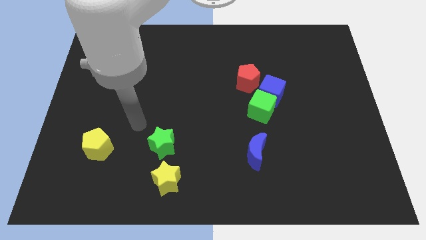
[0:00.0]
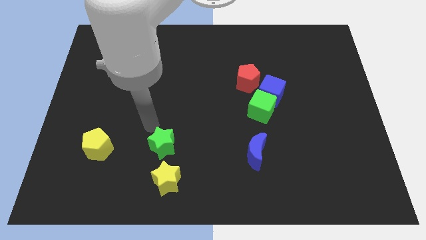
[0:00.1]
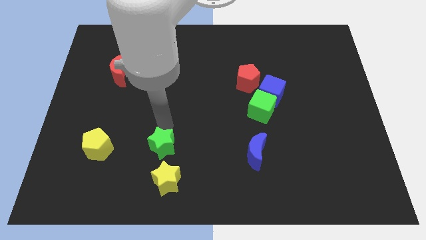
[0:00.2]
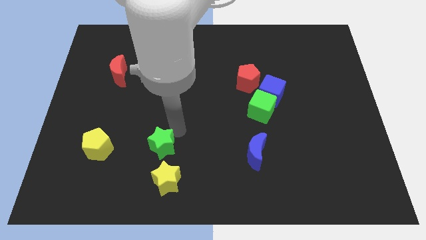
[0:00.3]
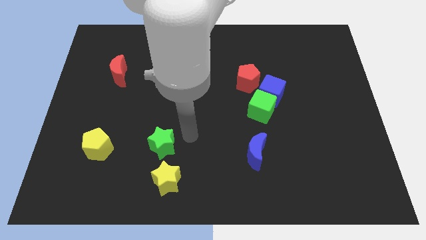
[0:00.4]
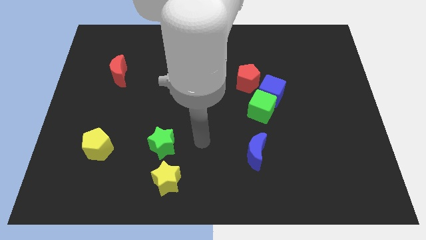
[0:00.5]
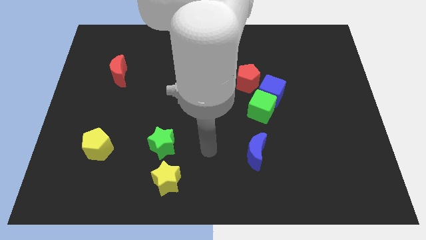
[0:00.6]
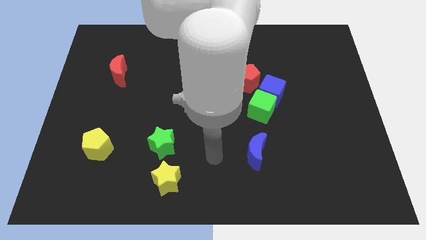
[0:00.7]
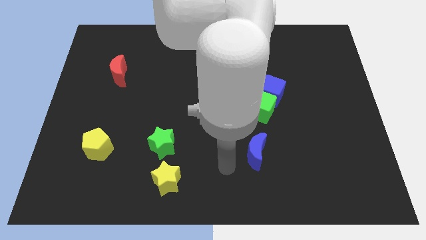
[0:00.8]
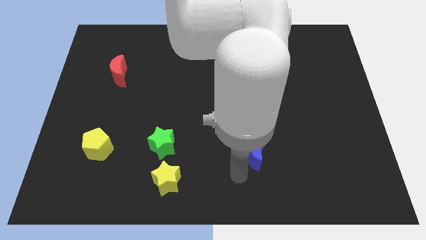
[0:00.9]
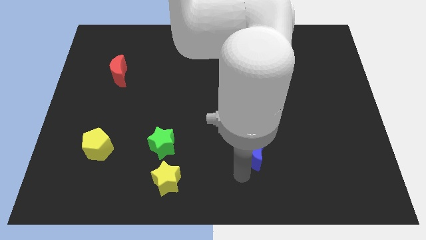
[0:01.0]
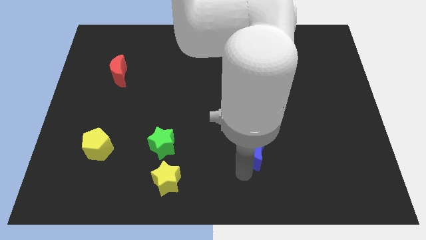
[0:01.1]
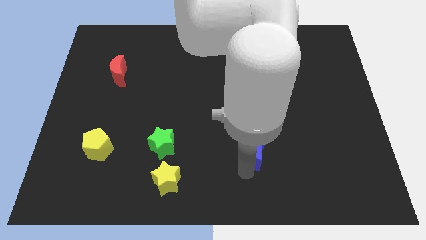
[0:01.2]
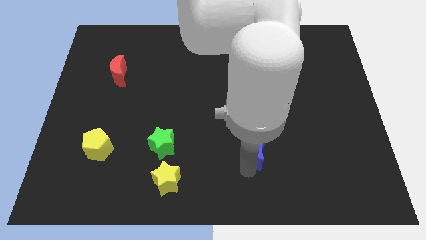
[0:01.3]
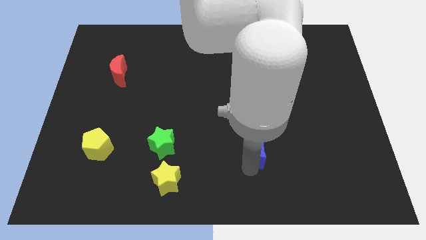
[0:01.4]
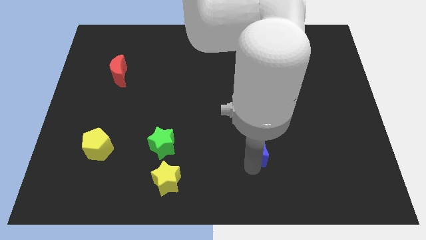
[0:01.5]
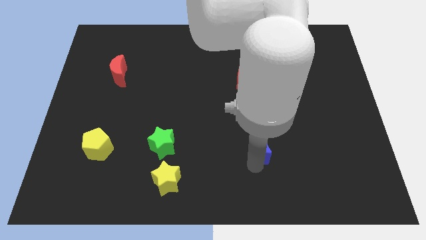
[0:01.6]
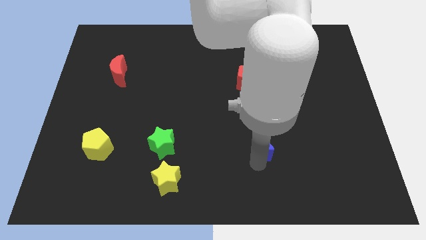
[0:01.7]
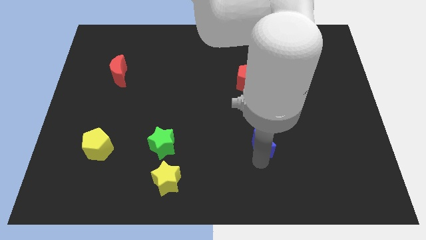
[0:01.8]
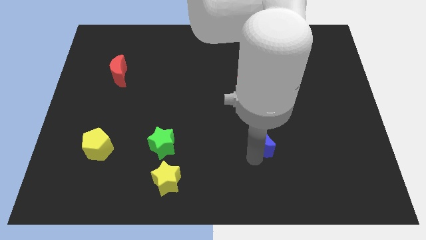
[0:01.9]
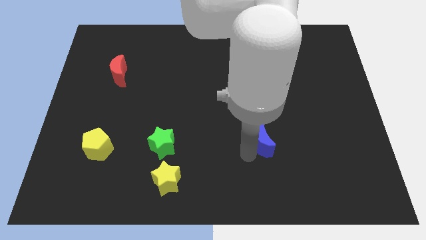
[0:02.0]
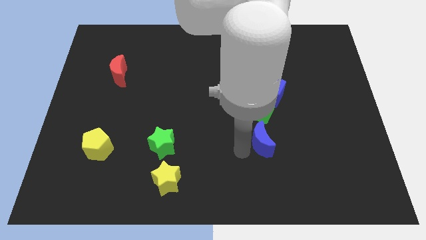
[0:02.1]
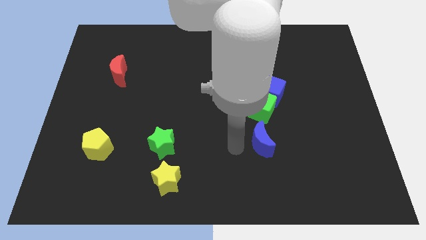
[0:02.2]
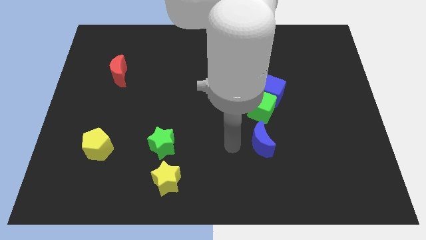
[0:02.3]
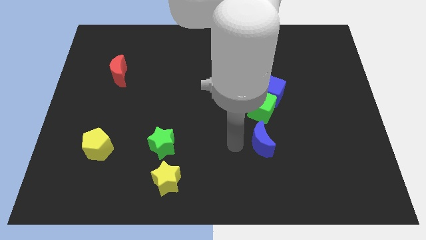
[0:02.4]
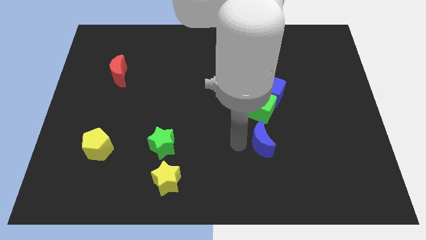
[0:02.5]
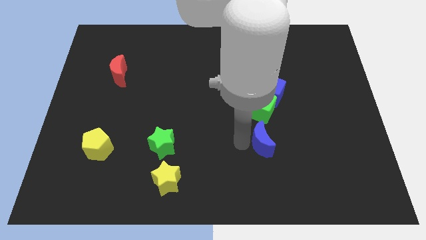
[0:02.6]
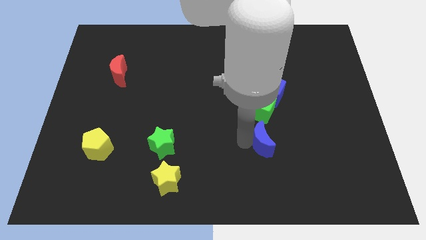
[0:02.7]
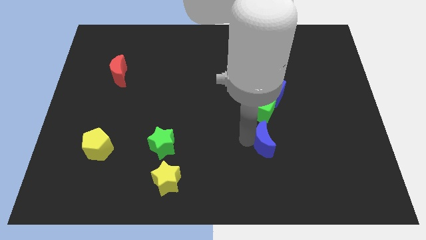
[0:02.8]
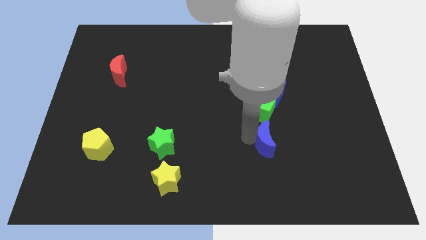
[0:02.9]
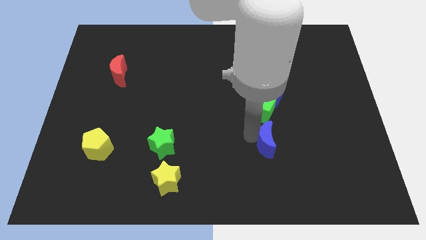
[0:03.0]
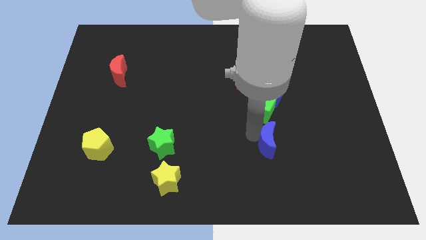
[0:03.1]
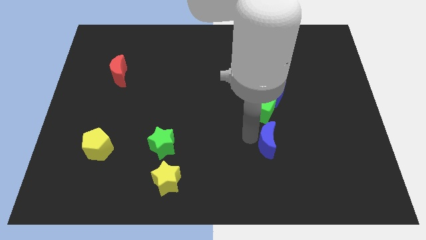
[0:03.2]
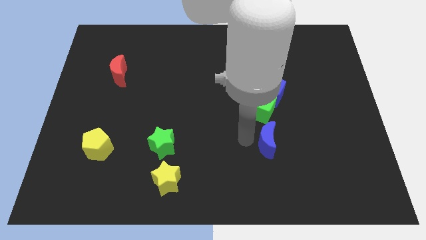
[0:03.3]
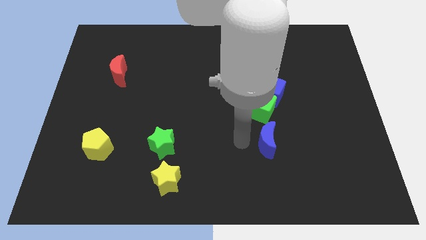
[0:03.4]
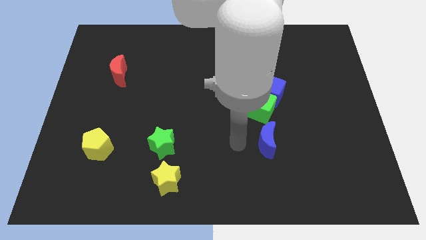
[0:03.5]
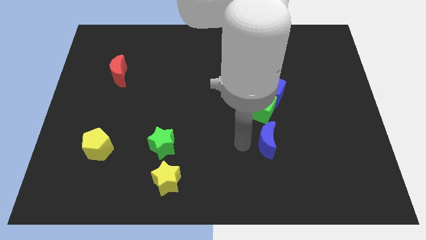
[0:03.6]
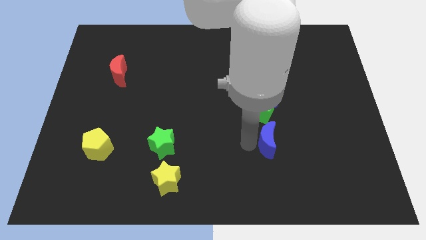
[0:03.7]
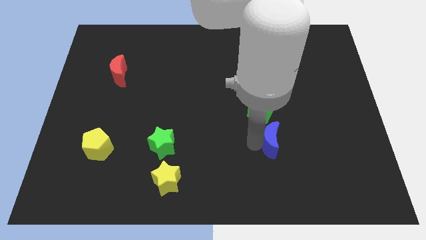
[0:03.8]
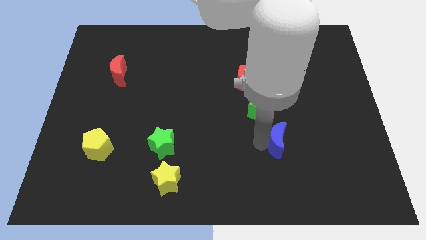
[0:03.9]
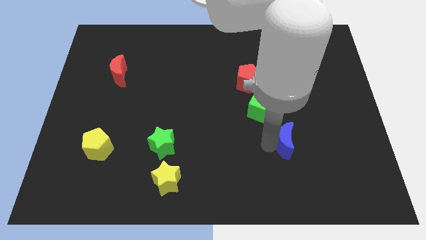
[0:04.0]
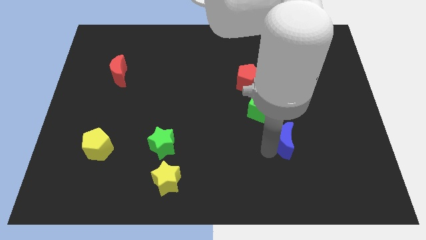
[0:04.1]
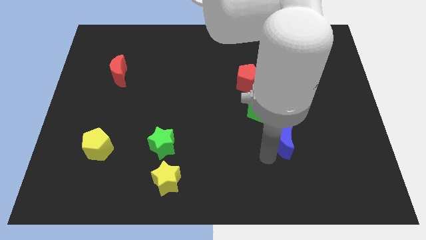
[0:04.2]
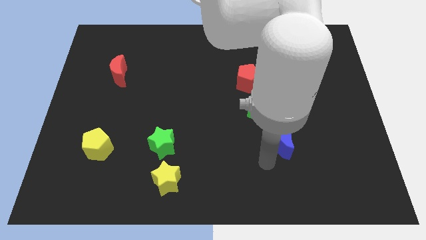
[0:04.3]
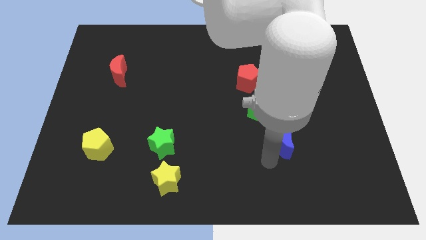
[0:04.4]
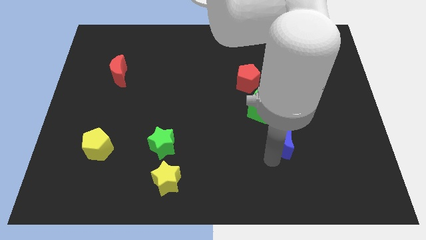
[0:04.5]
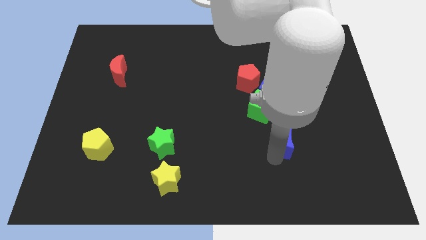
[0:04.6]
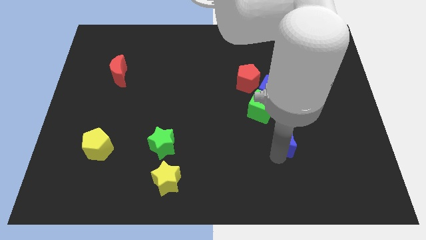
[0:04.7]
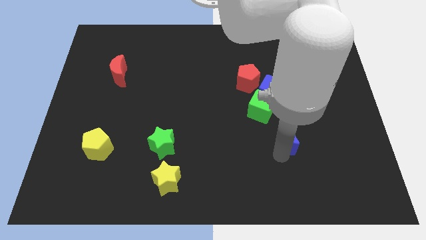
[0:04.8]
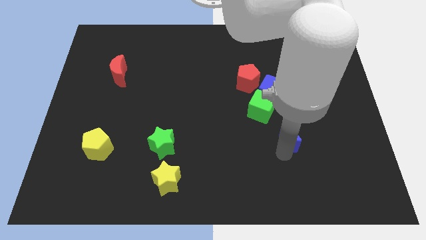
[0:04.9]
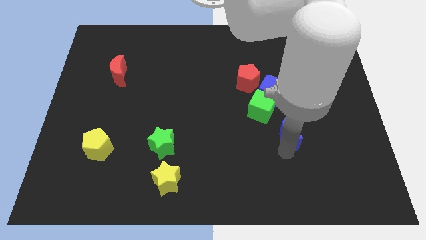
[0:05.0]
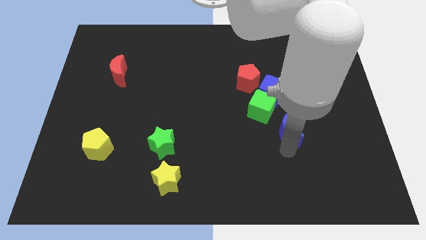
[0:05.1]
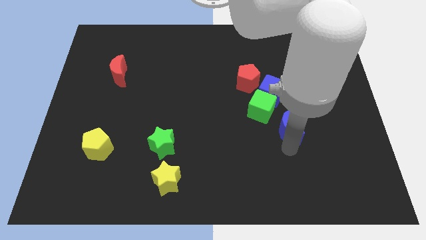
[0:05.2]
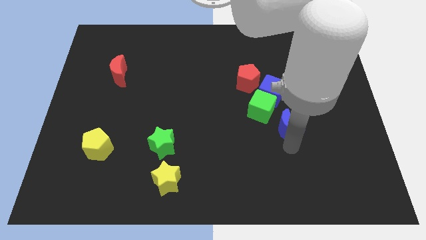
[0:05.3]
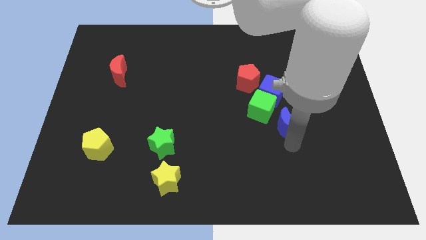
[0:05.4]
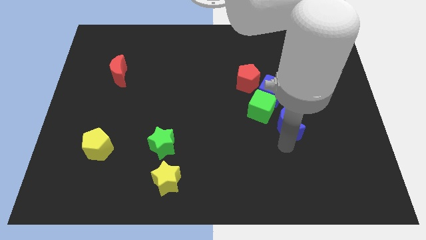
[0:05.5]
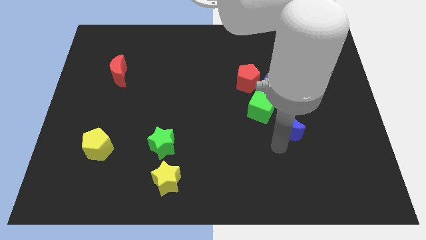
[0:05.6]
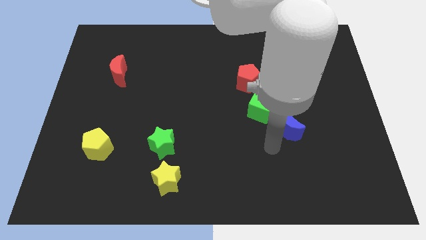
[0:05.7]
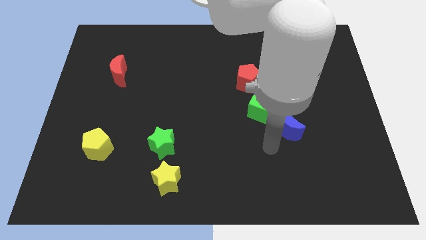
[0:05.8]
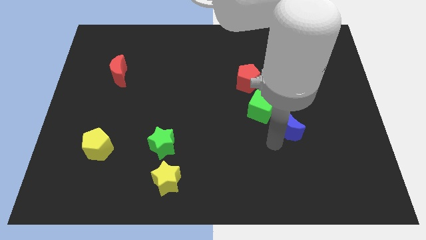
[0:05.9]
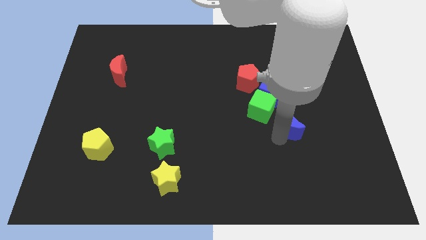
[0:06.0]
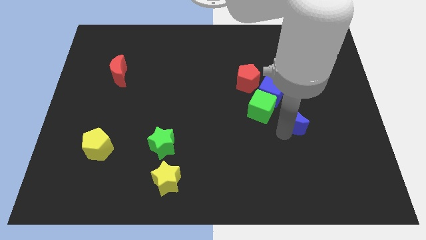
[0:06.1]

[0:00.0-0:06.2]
move the blue moon right of the green cube

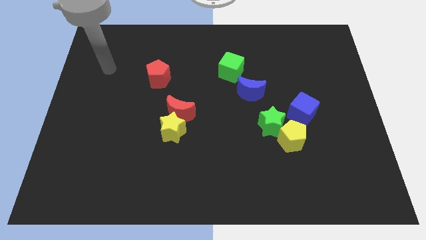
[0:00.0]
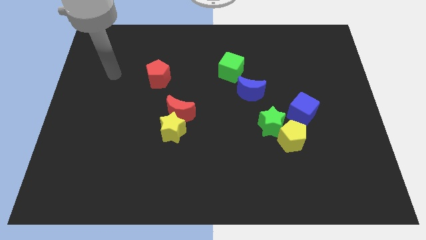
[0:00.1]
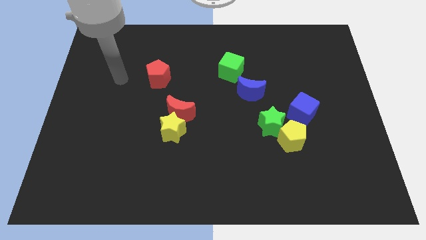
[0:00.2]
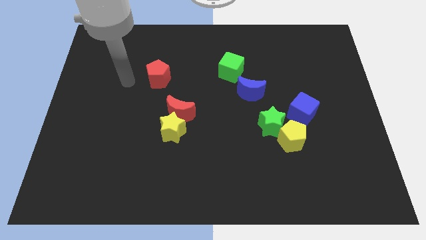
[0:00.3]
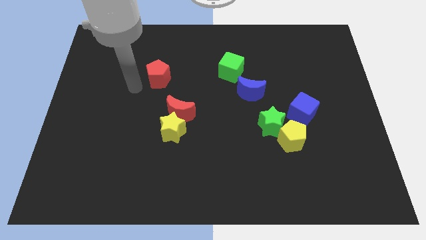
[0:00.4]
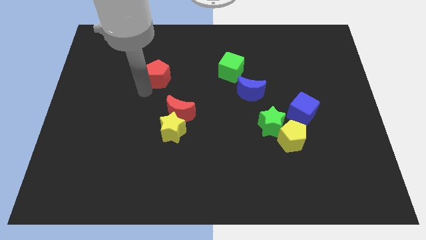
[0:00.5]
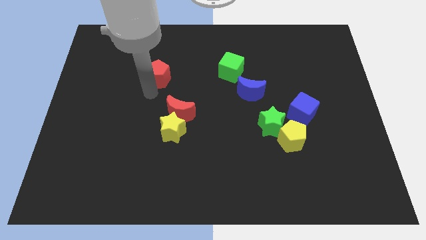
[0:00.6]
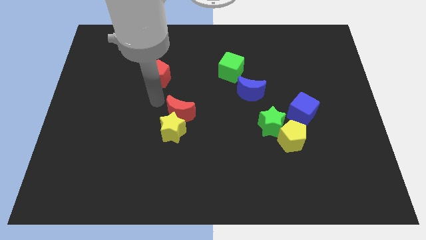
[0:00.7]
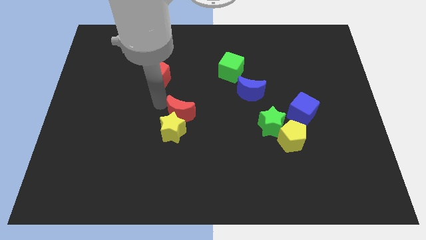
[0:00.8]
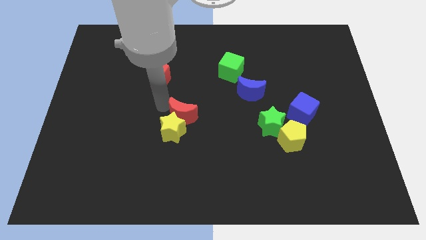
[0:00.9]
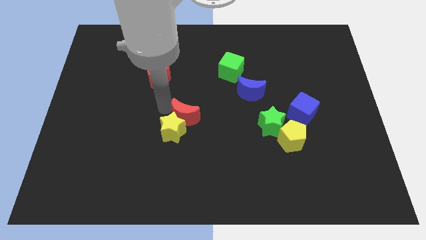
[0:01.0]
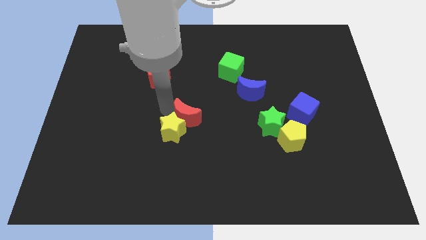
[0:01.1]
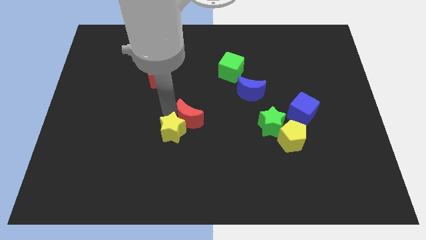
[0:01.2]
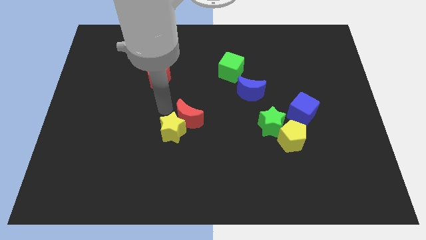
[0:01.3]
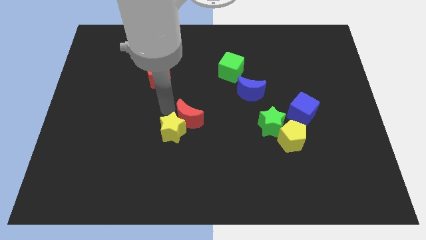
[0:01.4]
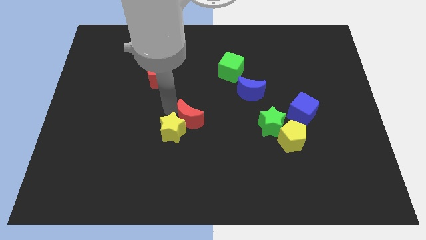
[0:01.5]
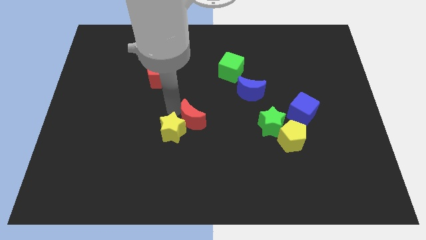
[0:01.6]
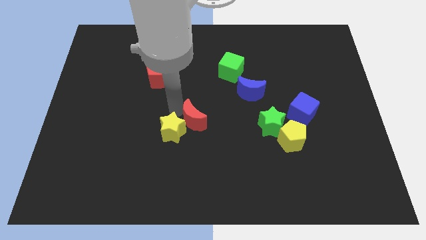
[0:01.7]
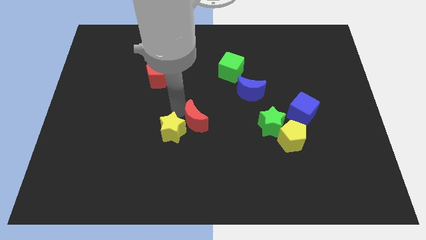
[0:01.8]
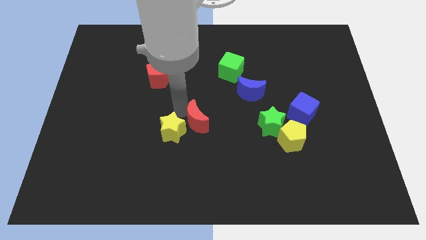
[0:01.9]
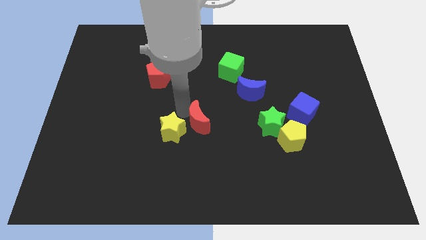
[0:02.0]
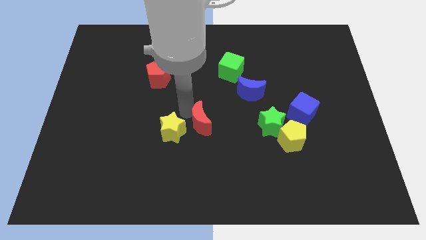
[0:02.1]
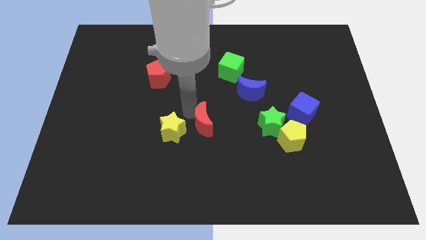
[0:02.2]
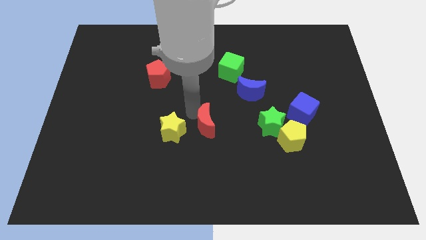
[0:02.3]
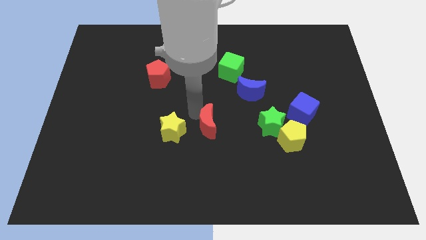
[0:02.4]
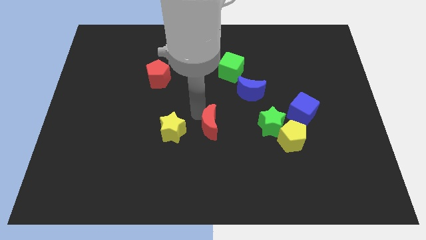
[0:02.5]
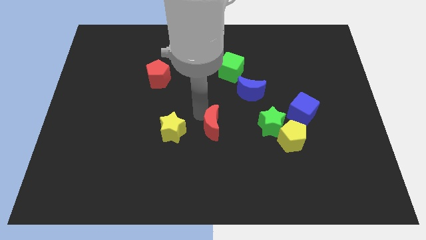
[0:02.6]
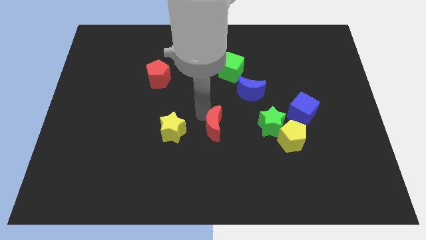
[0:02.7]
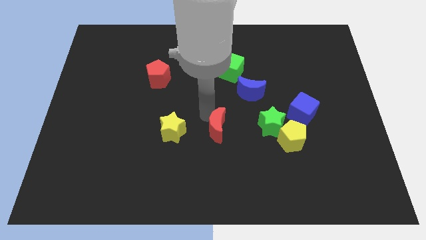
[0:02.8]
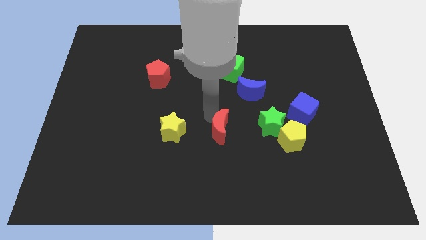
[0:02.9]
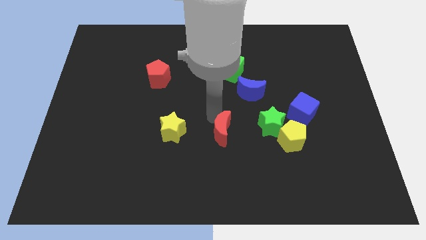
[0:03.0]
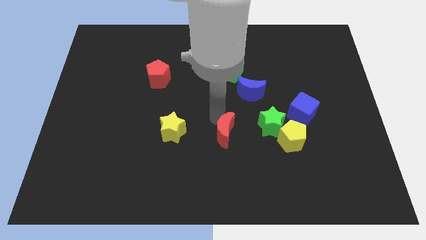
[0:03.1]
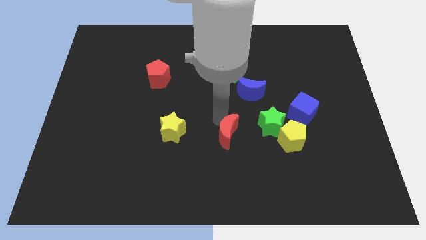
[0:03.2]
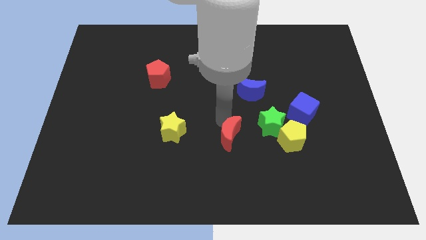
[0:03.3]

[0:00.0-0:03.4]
slide the red moon diagonally down and to the left of the green star
